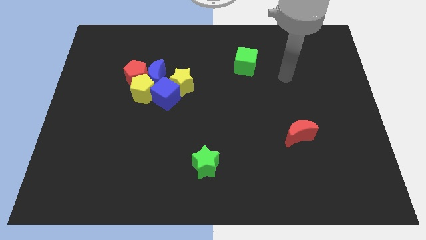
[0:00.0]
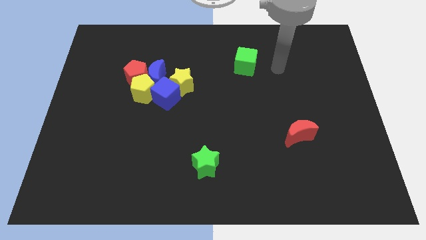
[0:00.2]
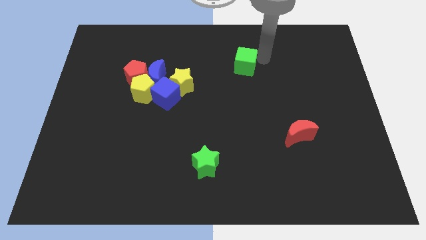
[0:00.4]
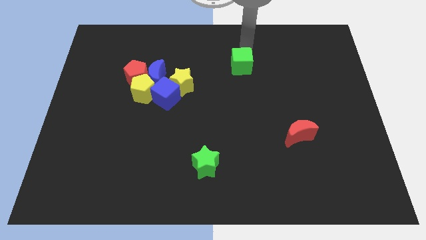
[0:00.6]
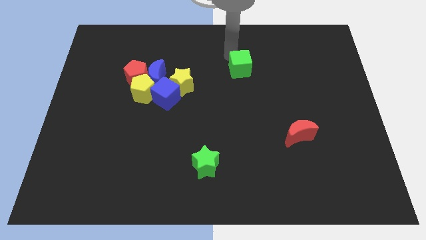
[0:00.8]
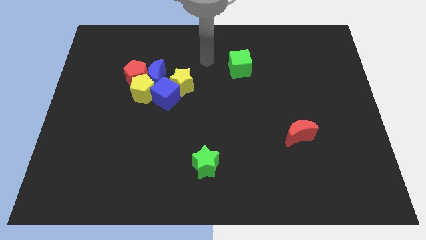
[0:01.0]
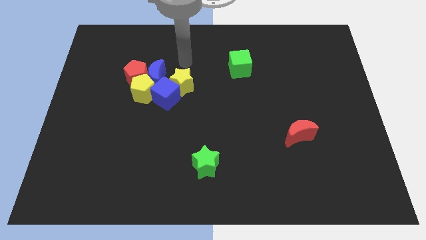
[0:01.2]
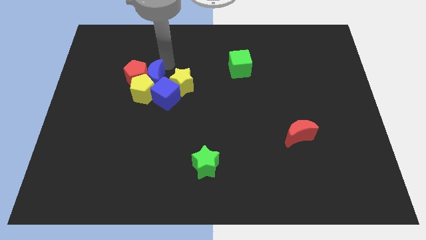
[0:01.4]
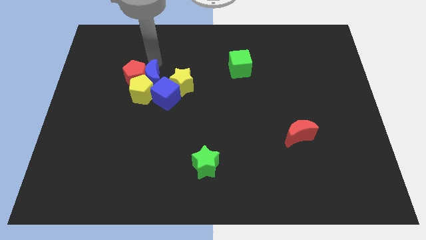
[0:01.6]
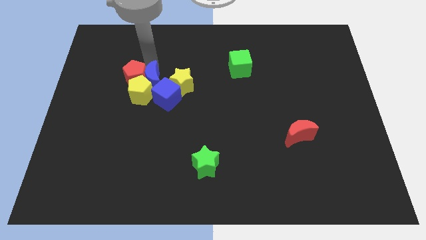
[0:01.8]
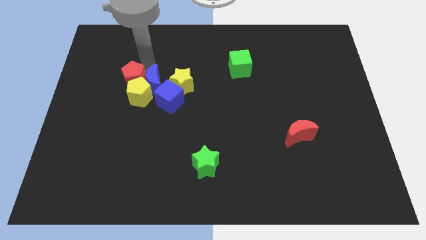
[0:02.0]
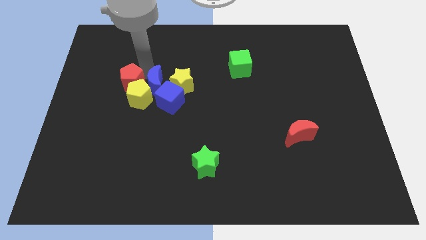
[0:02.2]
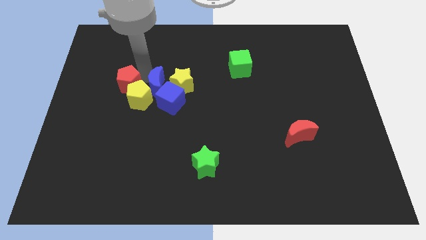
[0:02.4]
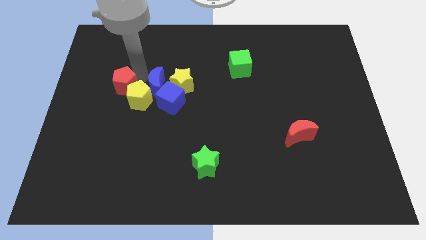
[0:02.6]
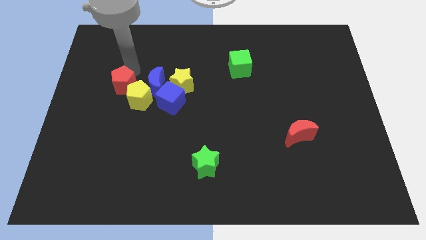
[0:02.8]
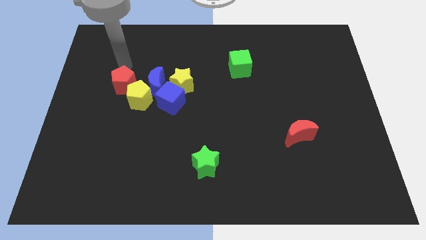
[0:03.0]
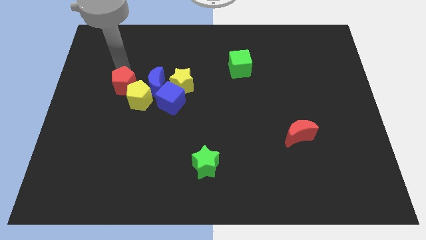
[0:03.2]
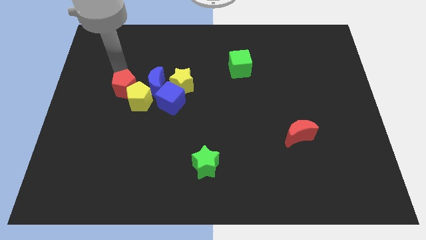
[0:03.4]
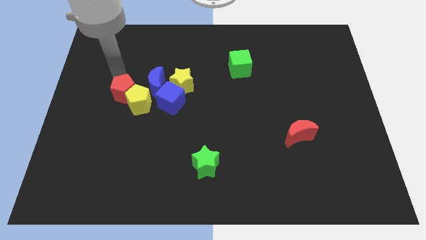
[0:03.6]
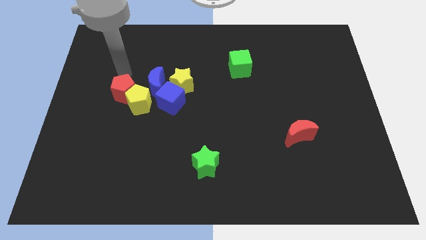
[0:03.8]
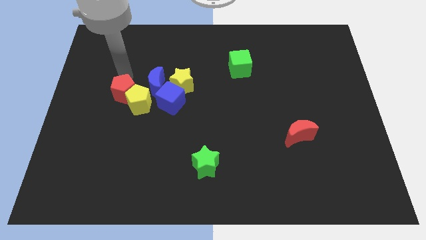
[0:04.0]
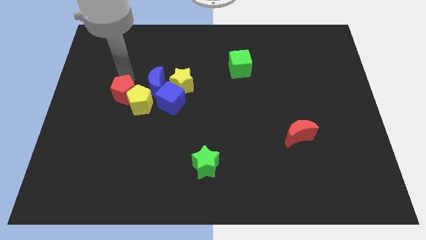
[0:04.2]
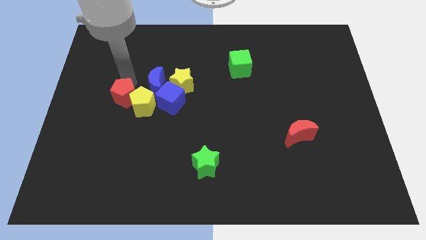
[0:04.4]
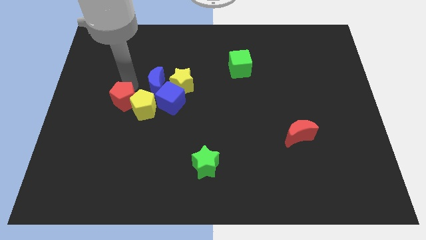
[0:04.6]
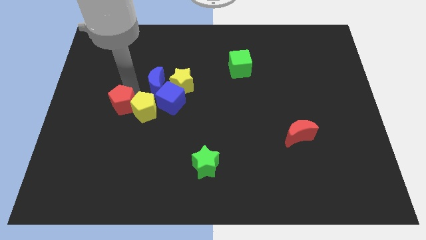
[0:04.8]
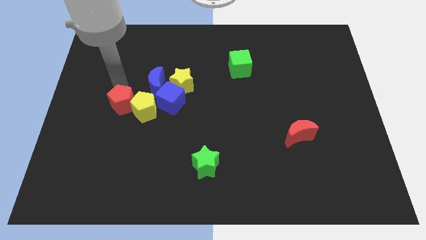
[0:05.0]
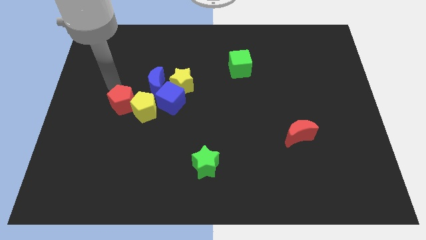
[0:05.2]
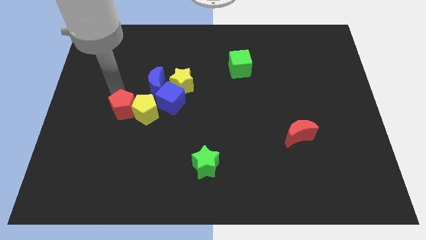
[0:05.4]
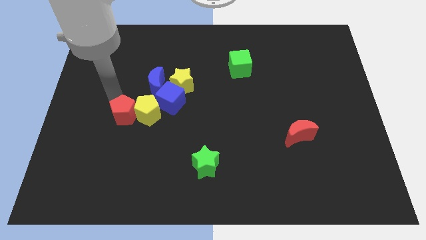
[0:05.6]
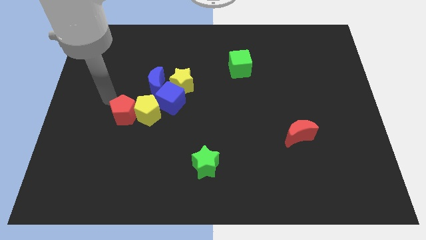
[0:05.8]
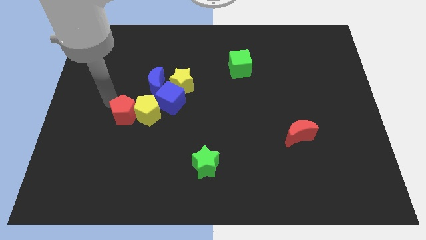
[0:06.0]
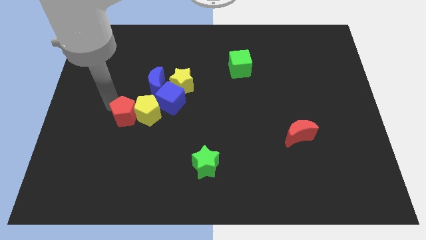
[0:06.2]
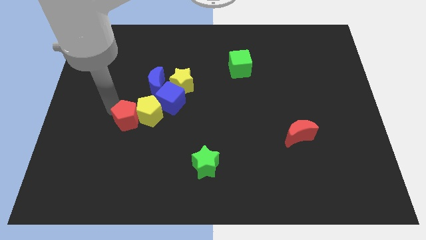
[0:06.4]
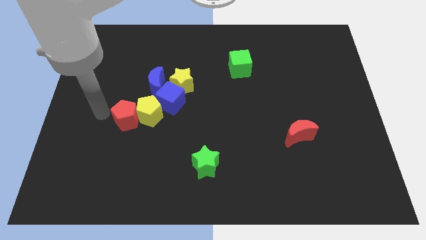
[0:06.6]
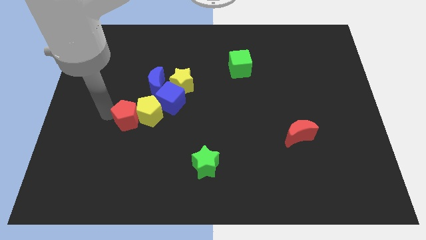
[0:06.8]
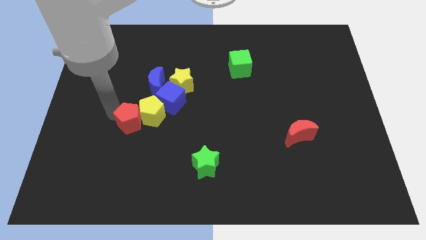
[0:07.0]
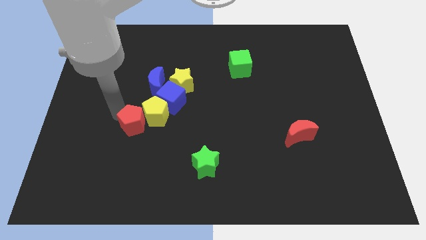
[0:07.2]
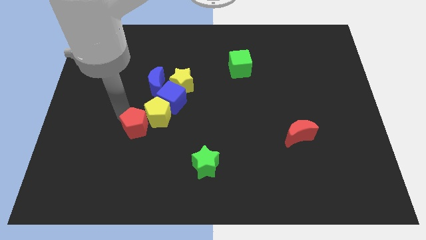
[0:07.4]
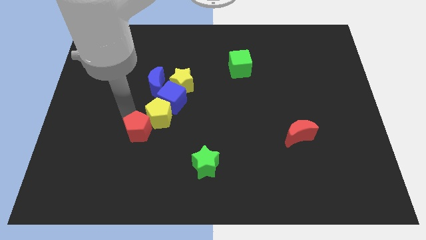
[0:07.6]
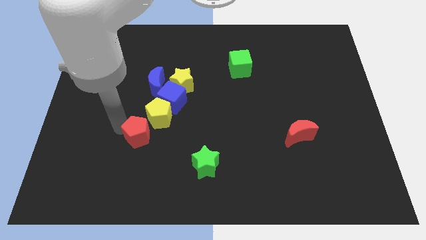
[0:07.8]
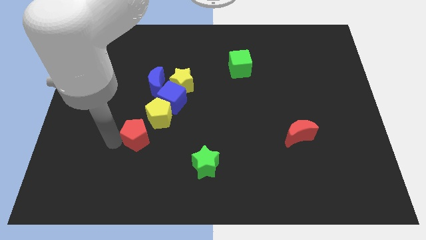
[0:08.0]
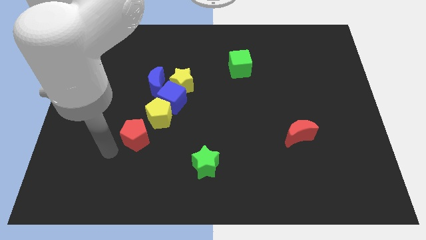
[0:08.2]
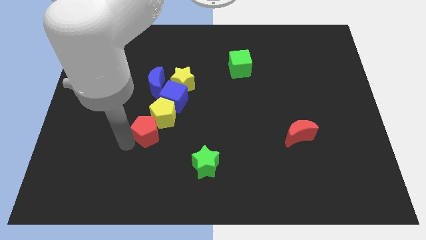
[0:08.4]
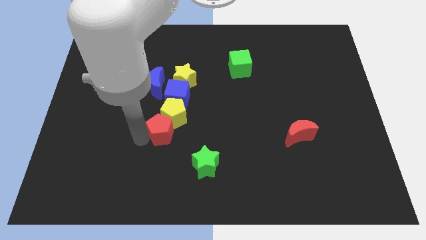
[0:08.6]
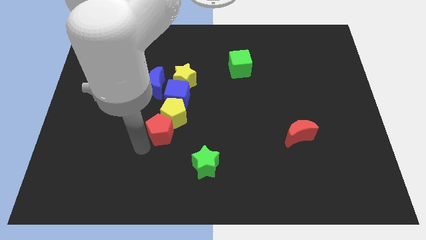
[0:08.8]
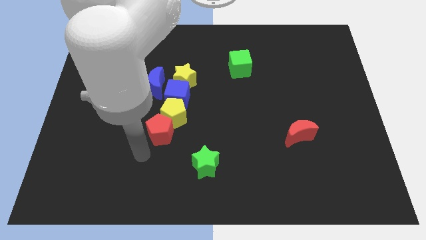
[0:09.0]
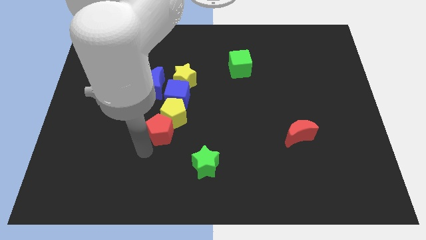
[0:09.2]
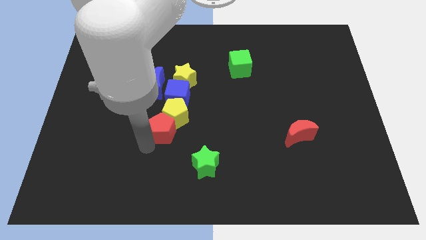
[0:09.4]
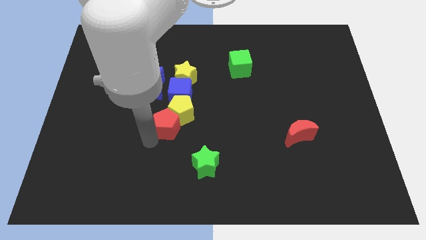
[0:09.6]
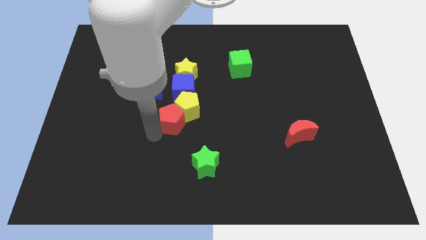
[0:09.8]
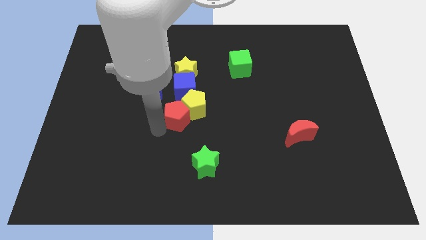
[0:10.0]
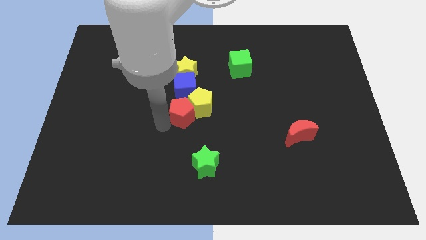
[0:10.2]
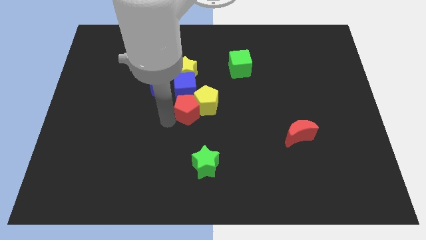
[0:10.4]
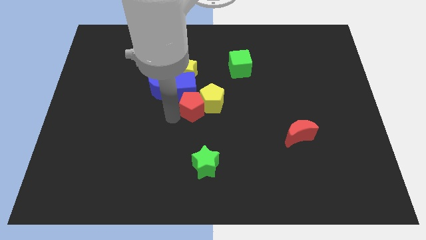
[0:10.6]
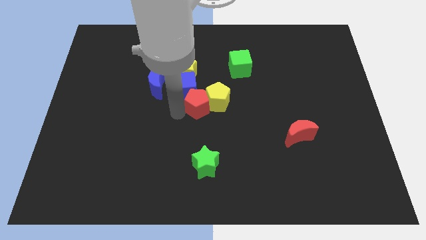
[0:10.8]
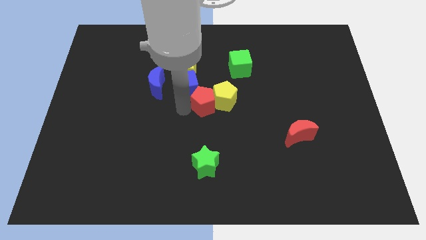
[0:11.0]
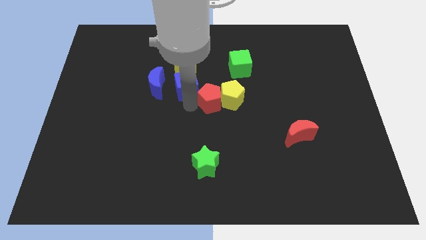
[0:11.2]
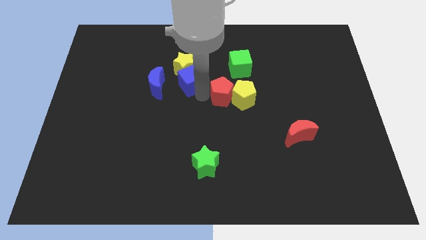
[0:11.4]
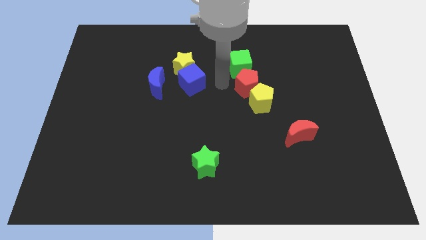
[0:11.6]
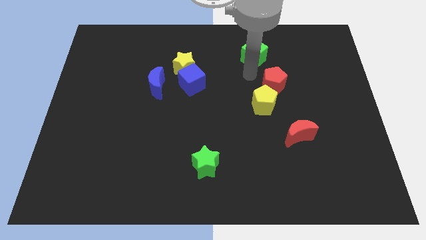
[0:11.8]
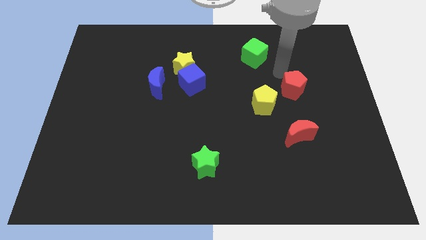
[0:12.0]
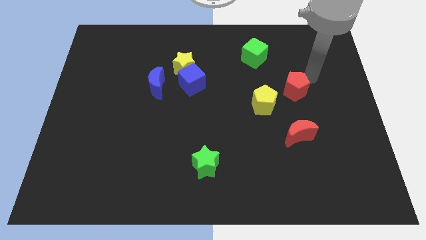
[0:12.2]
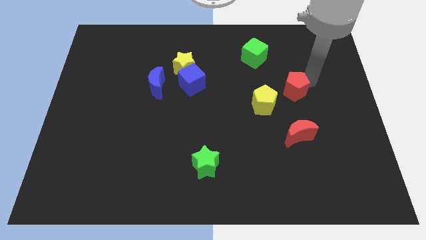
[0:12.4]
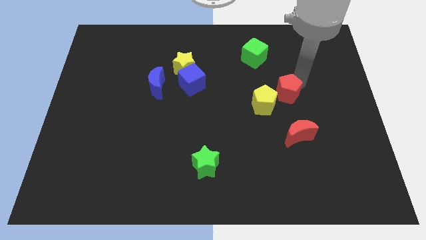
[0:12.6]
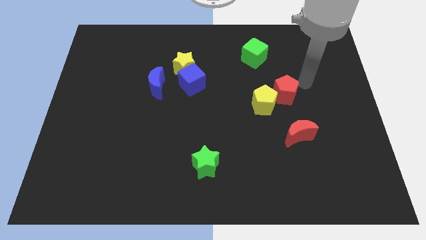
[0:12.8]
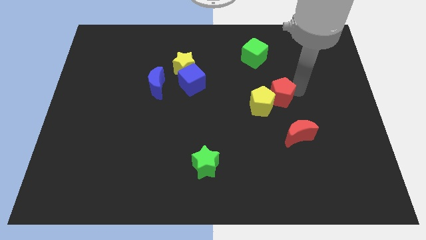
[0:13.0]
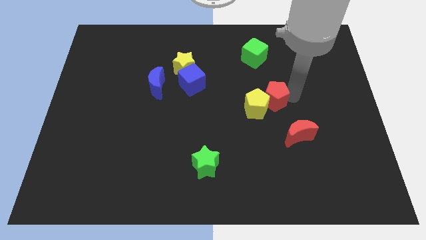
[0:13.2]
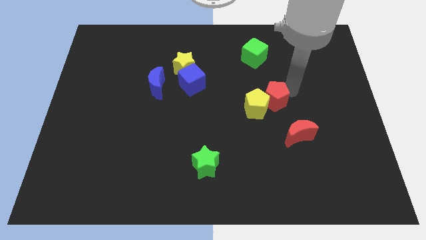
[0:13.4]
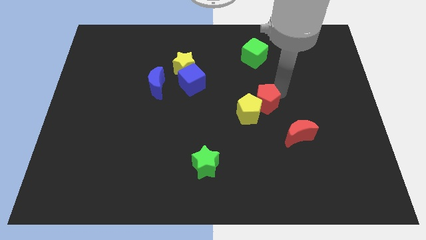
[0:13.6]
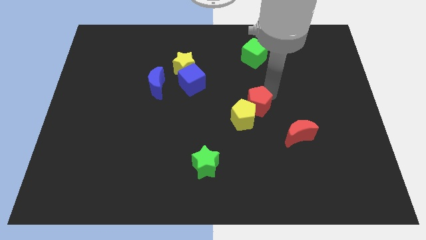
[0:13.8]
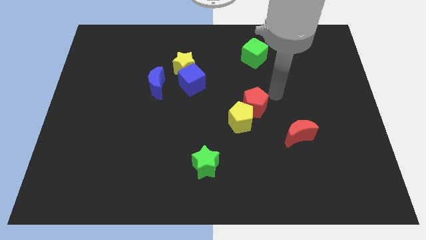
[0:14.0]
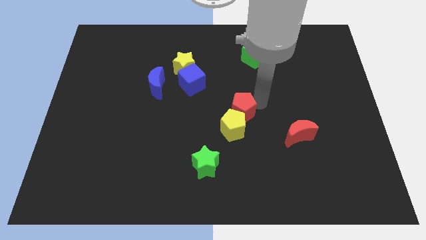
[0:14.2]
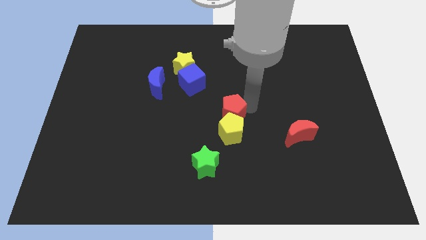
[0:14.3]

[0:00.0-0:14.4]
move the red pentagon downwards and right diagonally

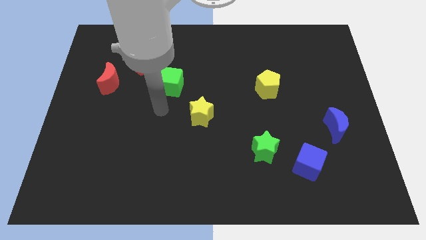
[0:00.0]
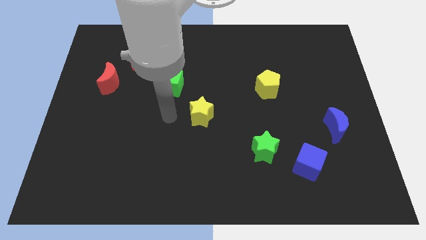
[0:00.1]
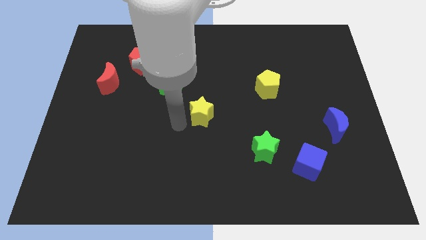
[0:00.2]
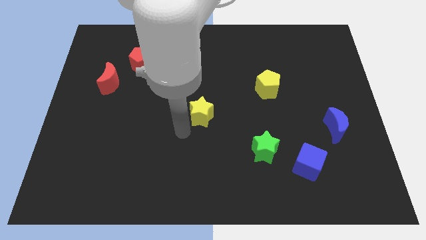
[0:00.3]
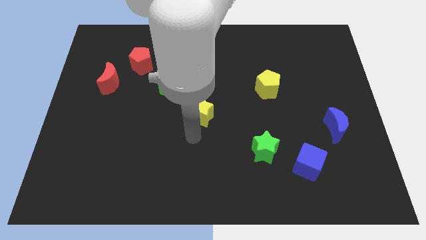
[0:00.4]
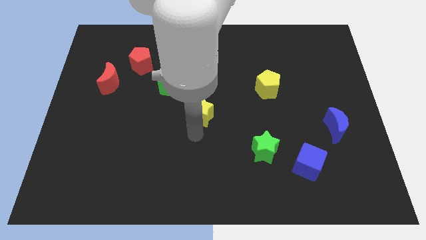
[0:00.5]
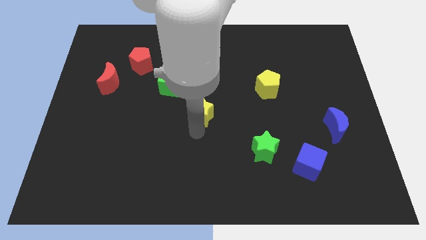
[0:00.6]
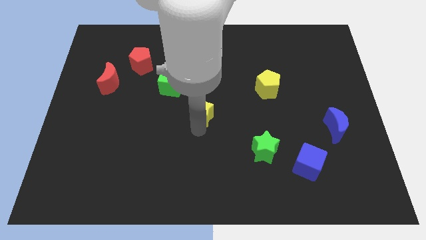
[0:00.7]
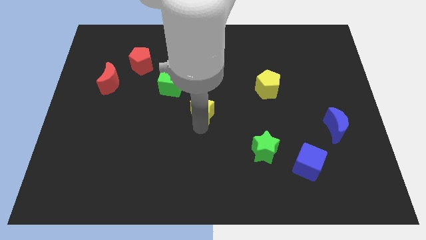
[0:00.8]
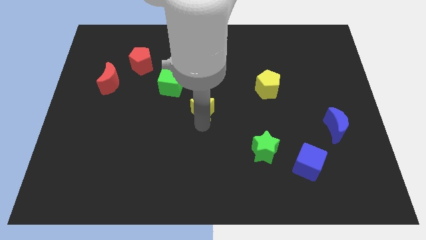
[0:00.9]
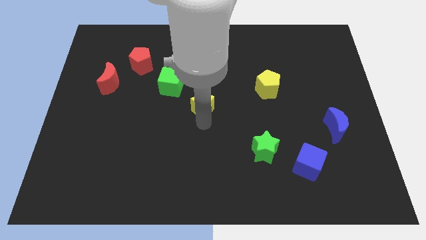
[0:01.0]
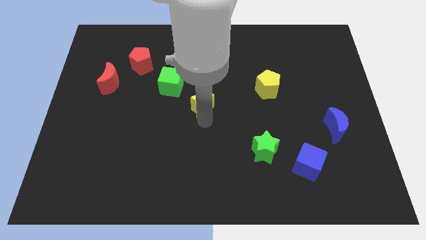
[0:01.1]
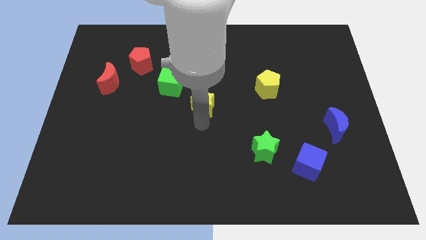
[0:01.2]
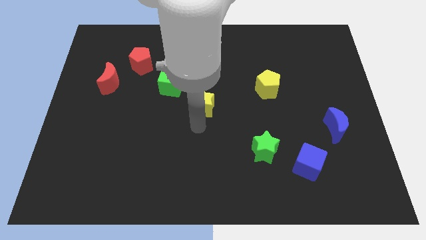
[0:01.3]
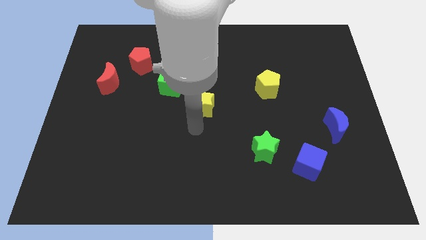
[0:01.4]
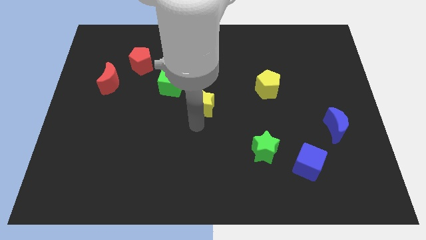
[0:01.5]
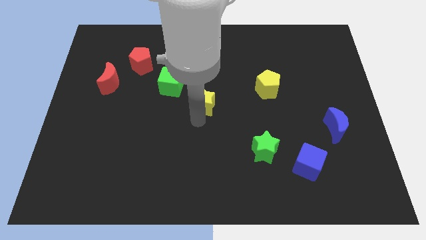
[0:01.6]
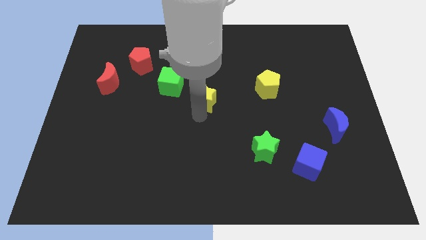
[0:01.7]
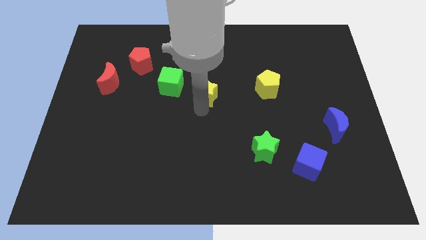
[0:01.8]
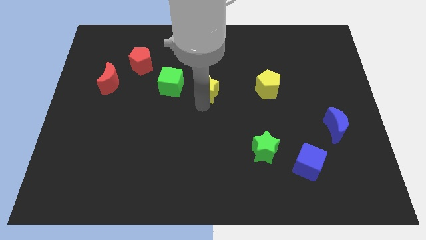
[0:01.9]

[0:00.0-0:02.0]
push the yellow star up a bit
